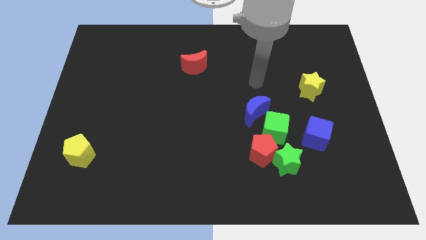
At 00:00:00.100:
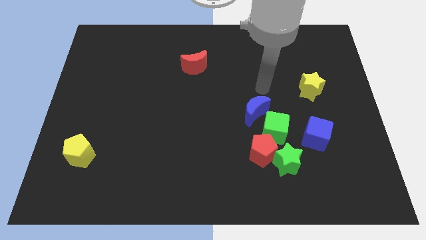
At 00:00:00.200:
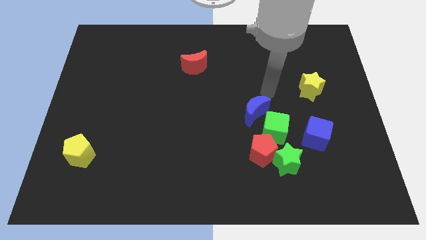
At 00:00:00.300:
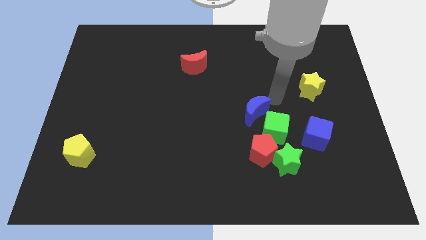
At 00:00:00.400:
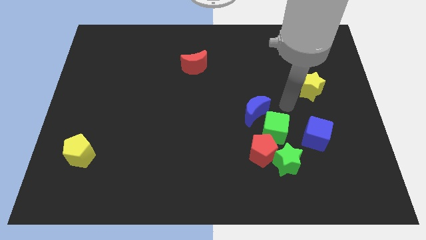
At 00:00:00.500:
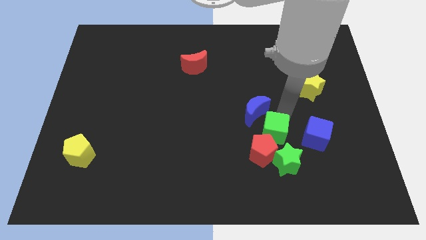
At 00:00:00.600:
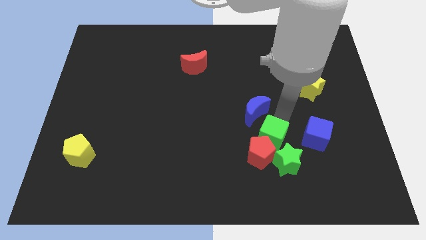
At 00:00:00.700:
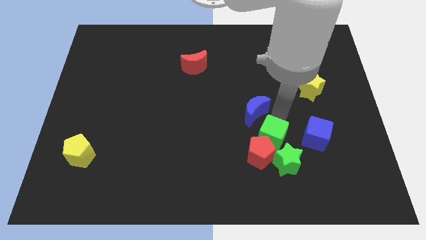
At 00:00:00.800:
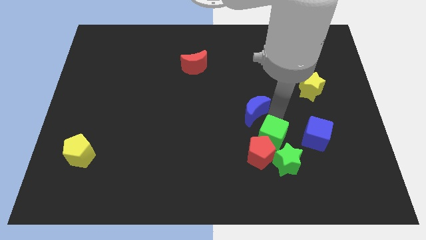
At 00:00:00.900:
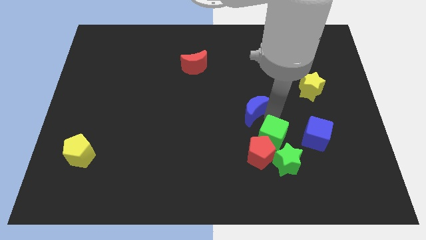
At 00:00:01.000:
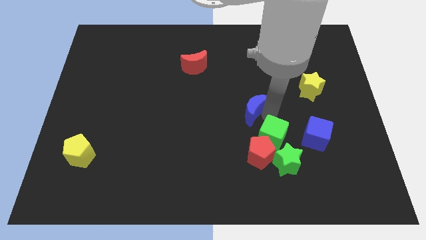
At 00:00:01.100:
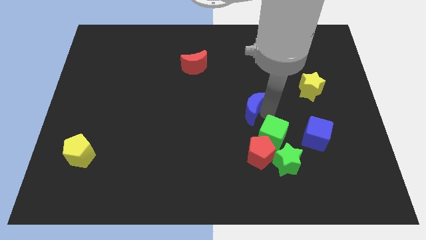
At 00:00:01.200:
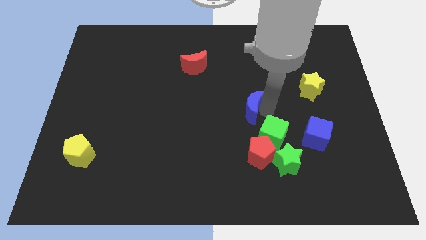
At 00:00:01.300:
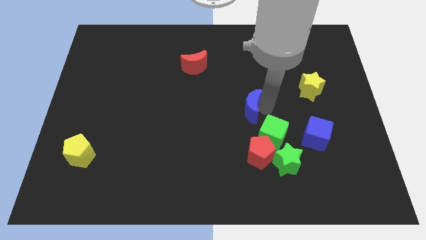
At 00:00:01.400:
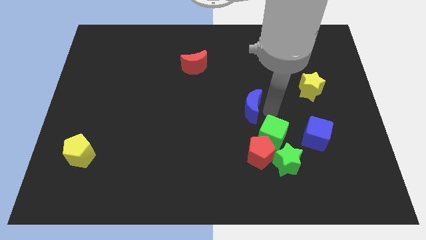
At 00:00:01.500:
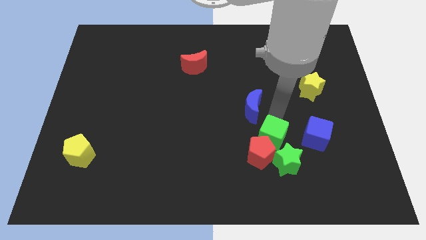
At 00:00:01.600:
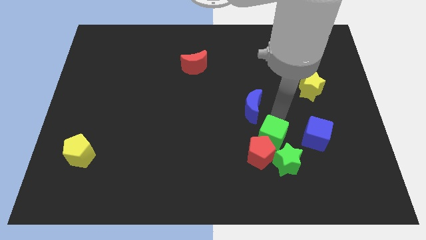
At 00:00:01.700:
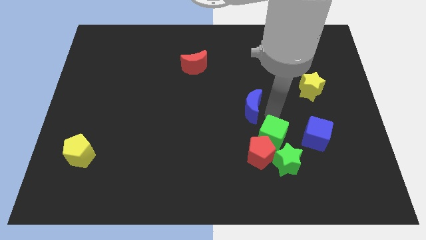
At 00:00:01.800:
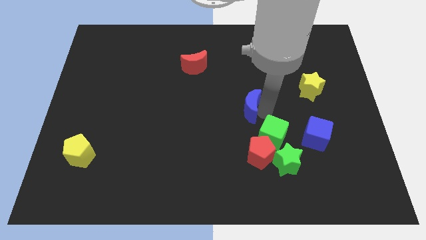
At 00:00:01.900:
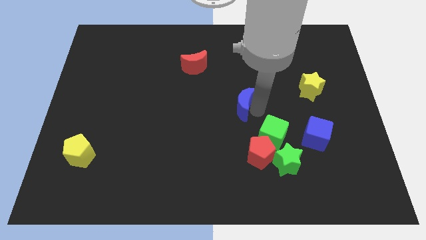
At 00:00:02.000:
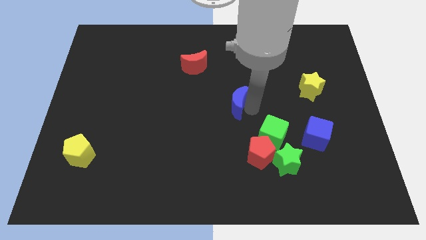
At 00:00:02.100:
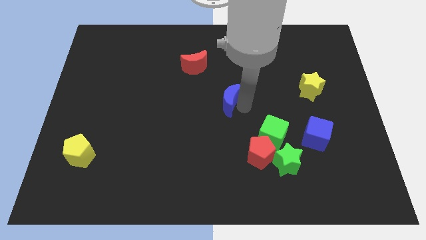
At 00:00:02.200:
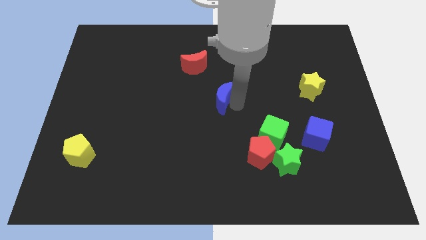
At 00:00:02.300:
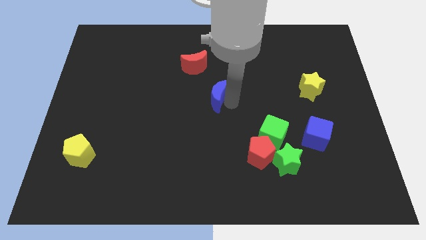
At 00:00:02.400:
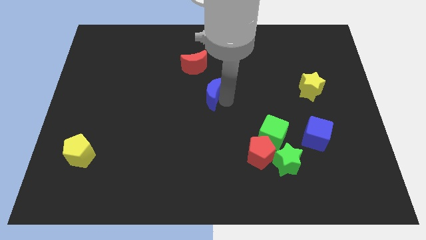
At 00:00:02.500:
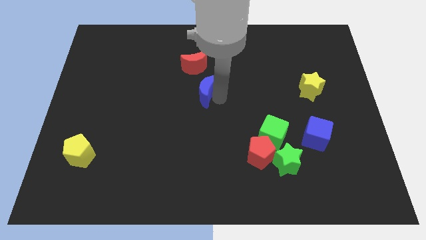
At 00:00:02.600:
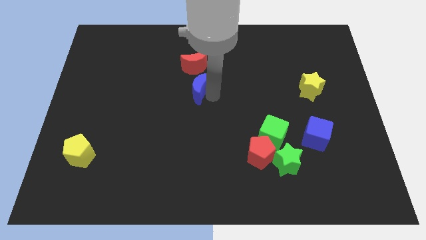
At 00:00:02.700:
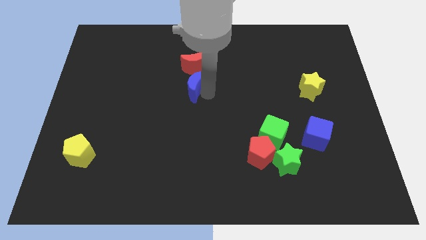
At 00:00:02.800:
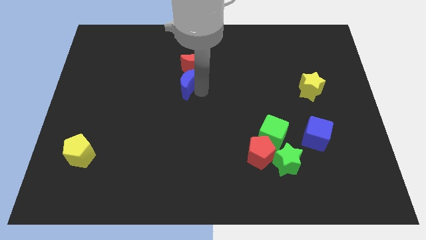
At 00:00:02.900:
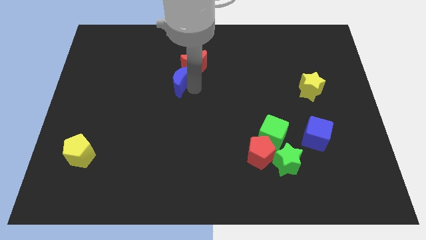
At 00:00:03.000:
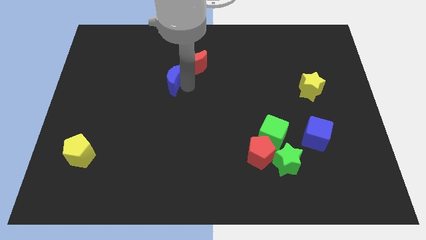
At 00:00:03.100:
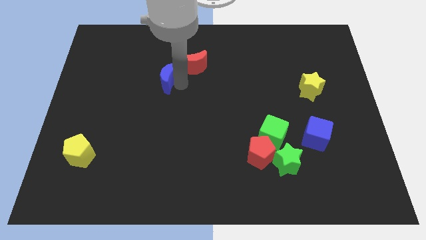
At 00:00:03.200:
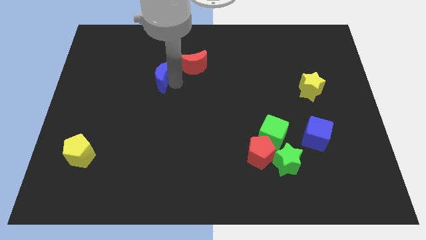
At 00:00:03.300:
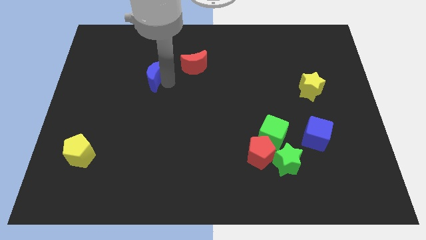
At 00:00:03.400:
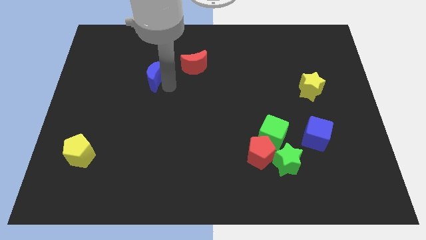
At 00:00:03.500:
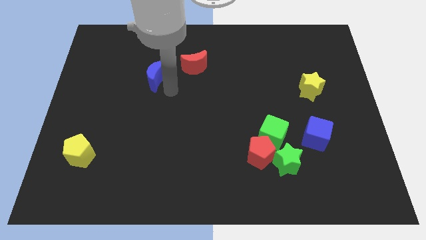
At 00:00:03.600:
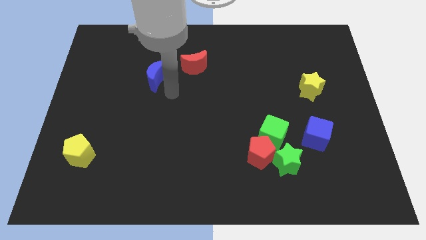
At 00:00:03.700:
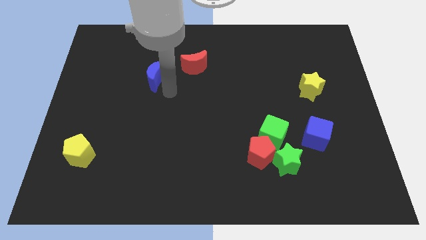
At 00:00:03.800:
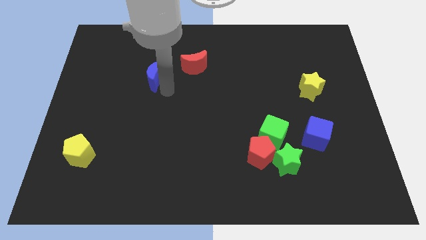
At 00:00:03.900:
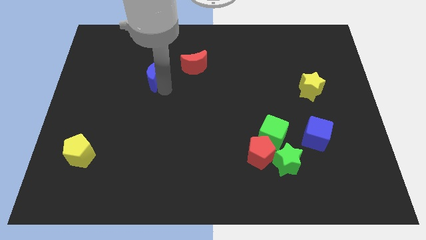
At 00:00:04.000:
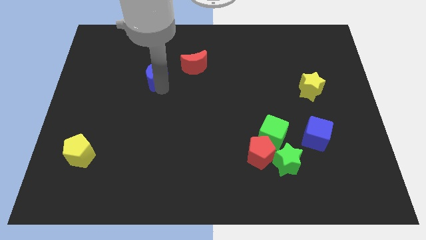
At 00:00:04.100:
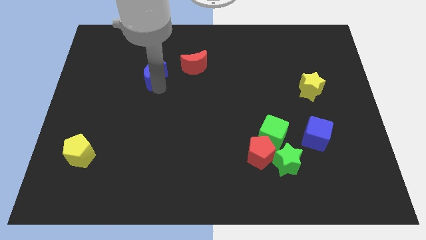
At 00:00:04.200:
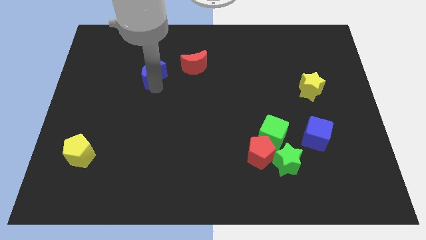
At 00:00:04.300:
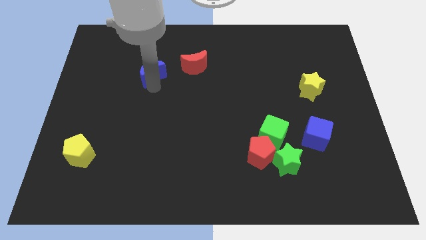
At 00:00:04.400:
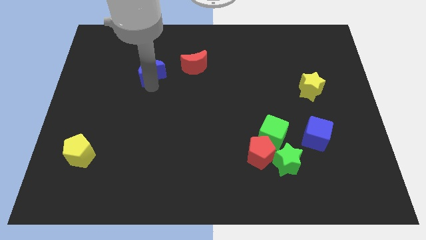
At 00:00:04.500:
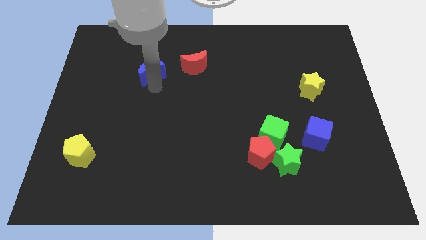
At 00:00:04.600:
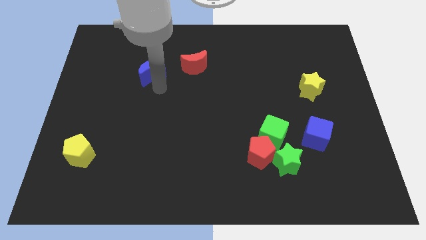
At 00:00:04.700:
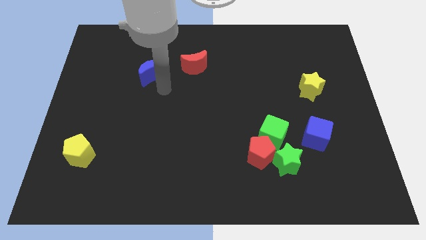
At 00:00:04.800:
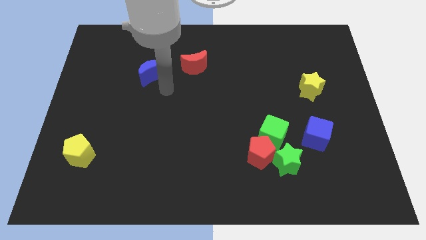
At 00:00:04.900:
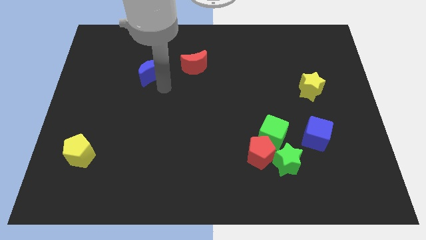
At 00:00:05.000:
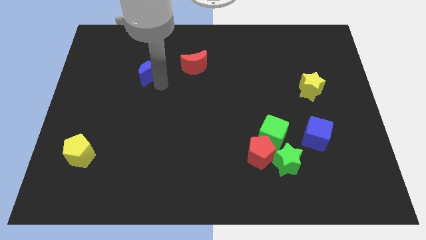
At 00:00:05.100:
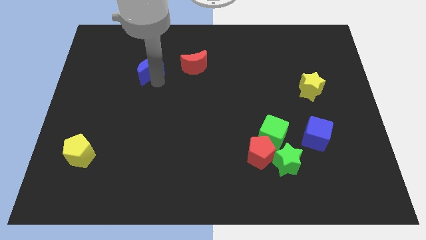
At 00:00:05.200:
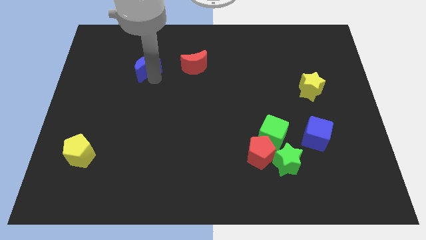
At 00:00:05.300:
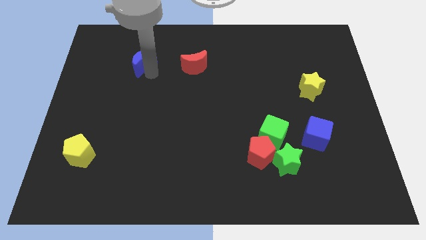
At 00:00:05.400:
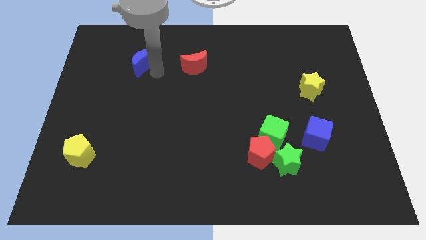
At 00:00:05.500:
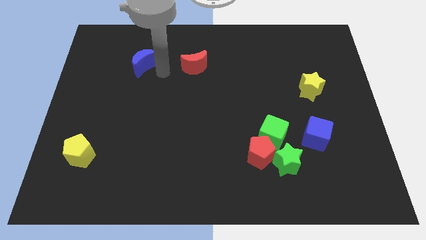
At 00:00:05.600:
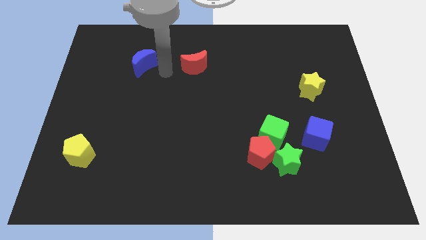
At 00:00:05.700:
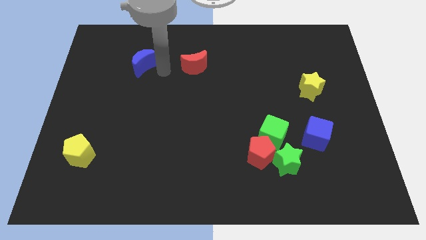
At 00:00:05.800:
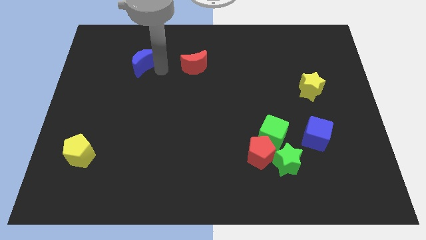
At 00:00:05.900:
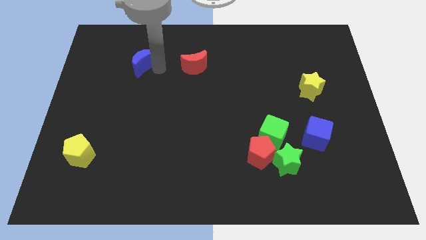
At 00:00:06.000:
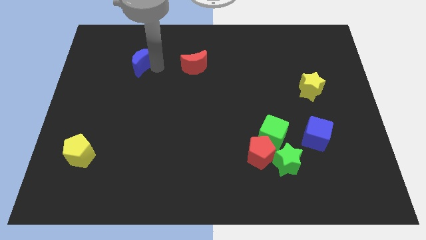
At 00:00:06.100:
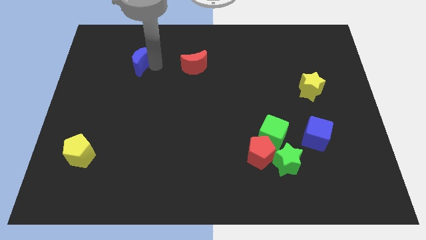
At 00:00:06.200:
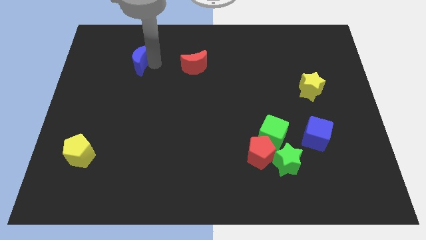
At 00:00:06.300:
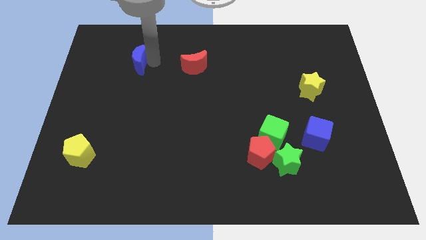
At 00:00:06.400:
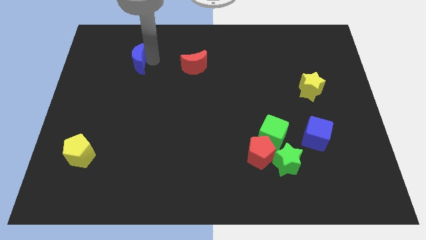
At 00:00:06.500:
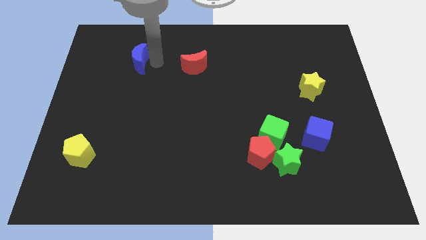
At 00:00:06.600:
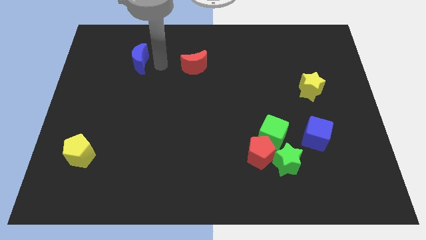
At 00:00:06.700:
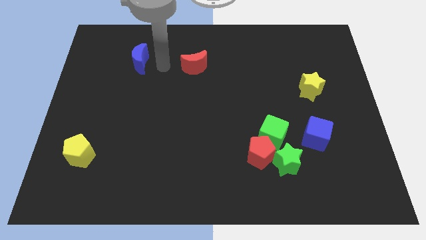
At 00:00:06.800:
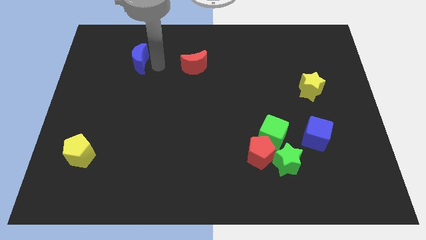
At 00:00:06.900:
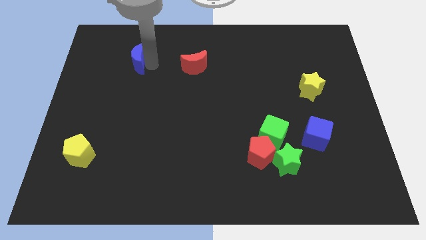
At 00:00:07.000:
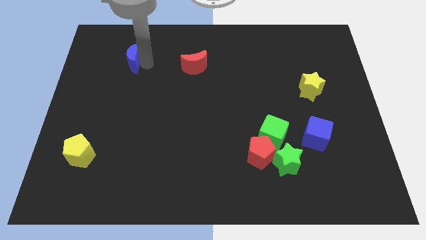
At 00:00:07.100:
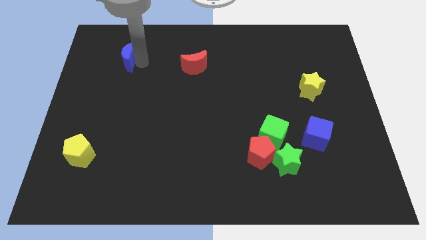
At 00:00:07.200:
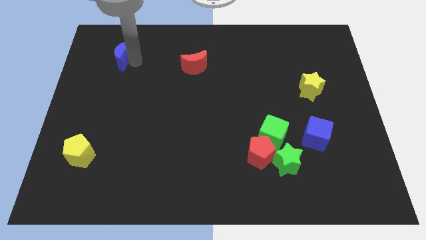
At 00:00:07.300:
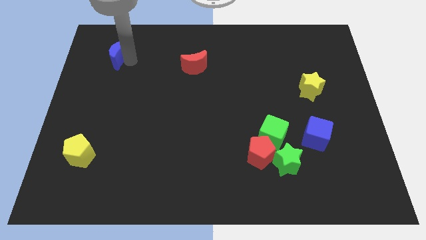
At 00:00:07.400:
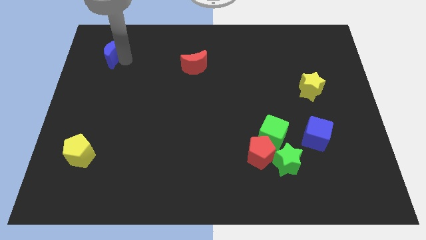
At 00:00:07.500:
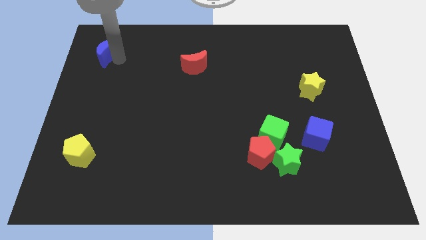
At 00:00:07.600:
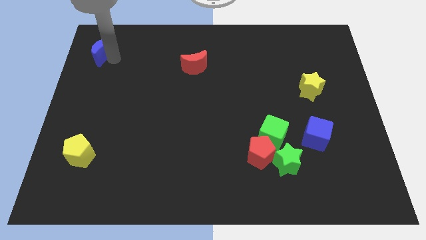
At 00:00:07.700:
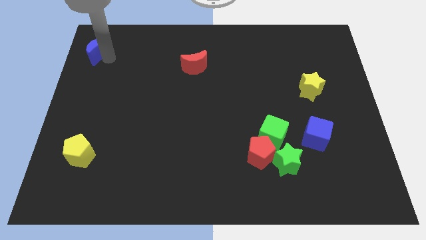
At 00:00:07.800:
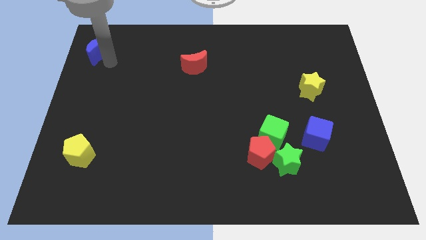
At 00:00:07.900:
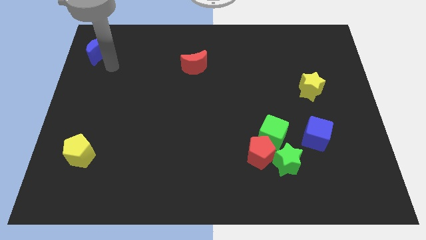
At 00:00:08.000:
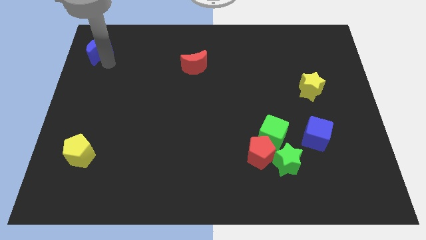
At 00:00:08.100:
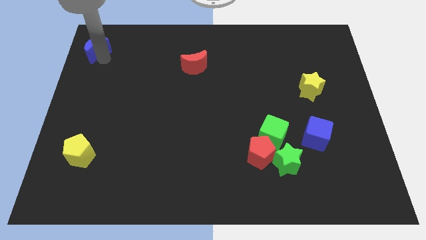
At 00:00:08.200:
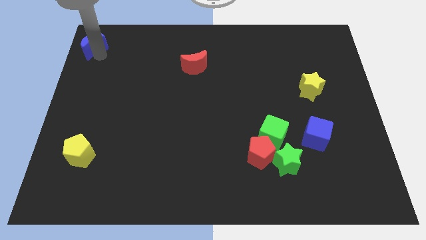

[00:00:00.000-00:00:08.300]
push the blue moon to the top left
